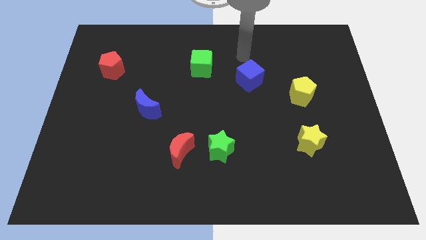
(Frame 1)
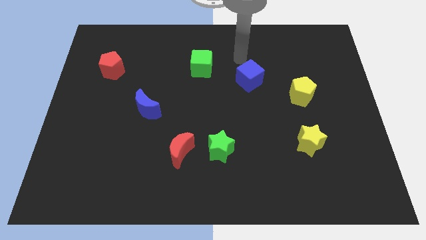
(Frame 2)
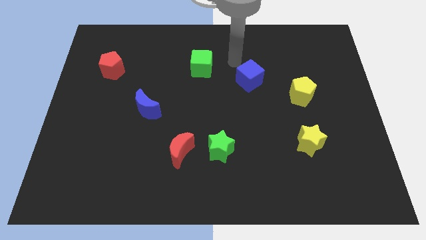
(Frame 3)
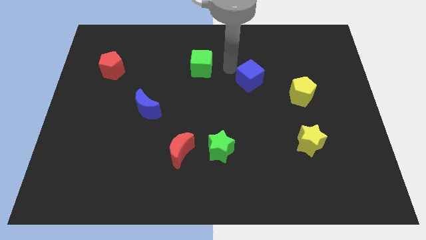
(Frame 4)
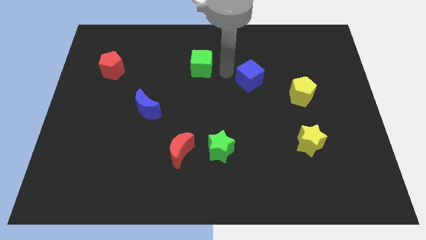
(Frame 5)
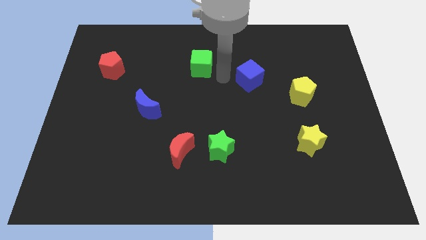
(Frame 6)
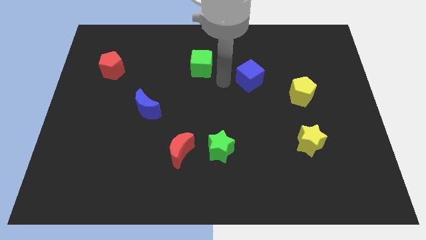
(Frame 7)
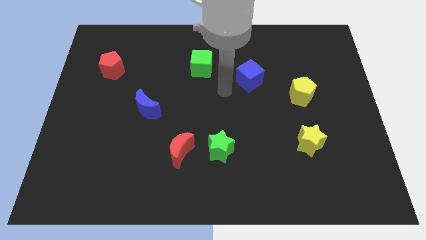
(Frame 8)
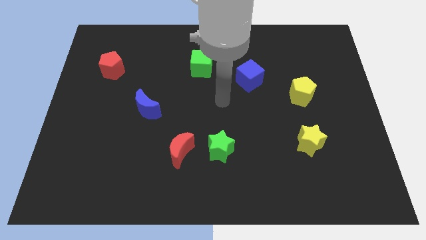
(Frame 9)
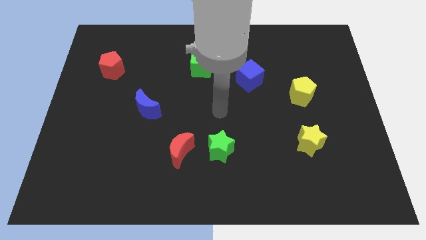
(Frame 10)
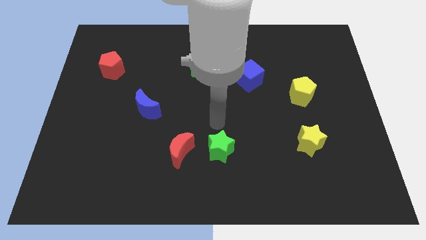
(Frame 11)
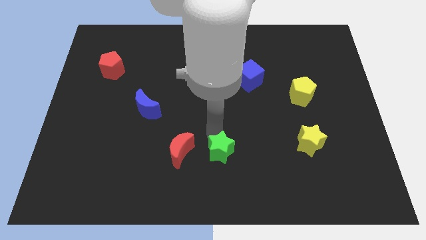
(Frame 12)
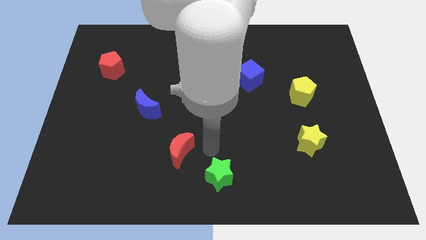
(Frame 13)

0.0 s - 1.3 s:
pull the red moon apart from the green star

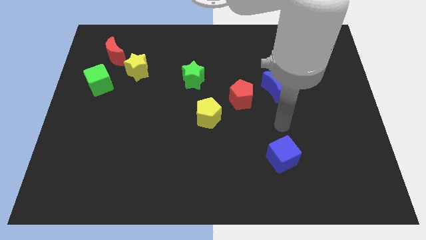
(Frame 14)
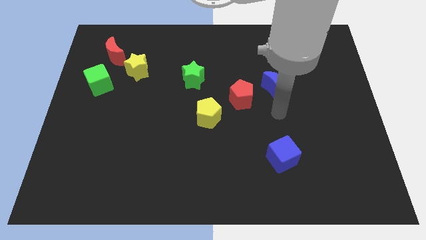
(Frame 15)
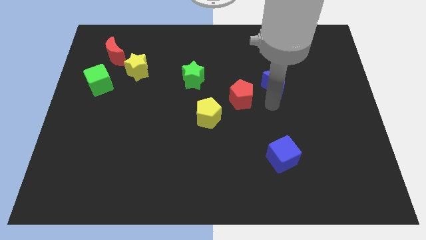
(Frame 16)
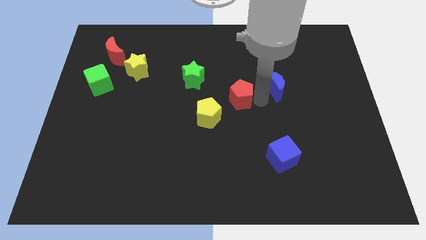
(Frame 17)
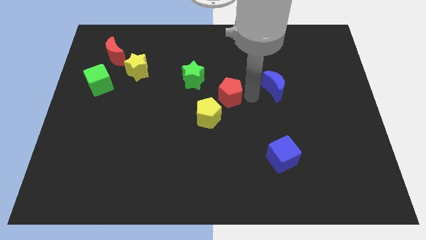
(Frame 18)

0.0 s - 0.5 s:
separate the blue moon from the red pentagon

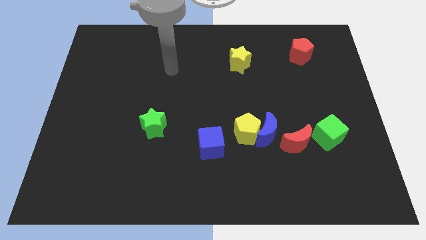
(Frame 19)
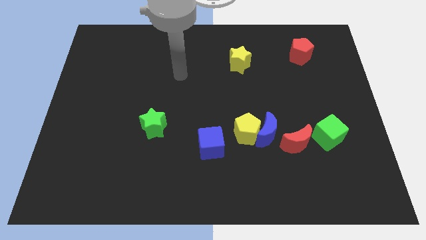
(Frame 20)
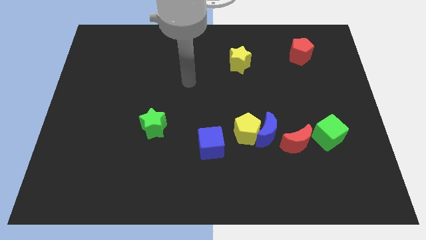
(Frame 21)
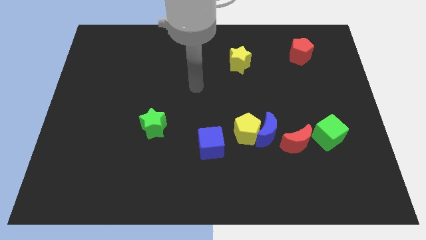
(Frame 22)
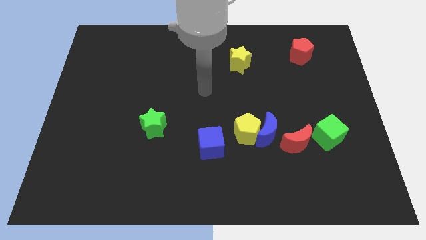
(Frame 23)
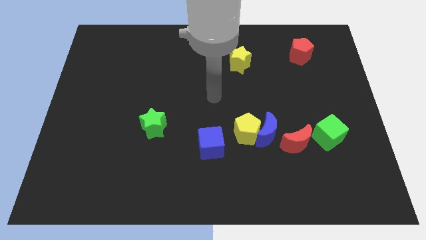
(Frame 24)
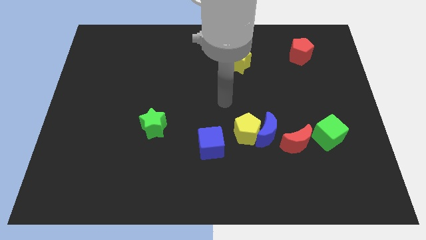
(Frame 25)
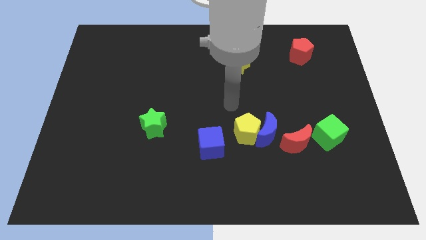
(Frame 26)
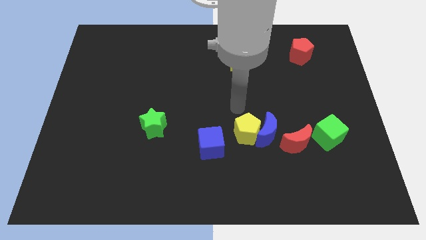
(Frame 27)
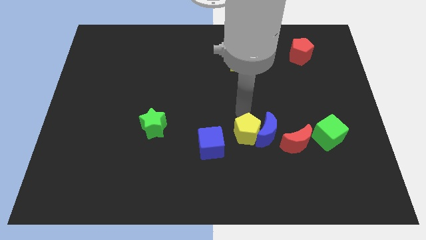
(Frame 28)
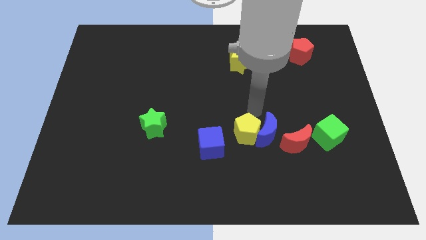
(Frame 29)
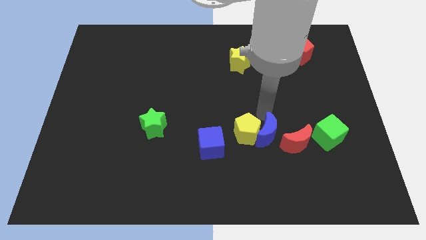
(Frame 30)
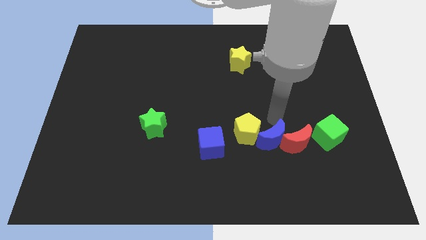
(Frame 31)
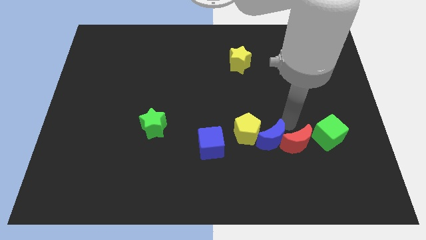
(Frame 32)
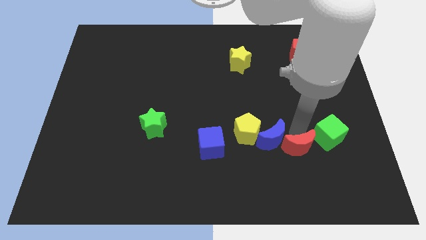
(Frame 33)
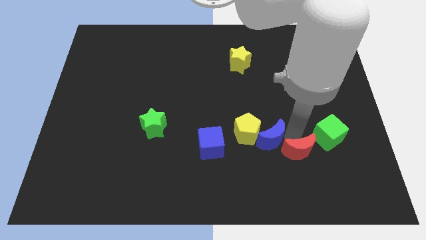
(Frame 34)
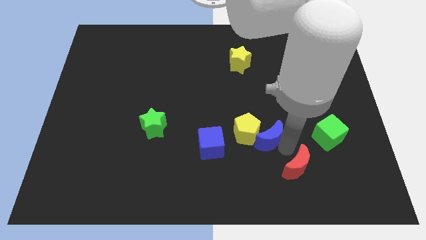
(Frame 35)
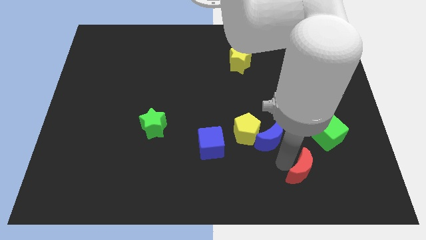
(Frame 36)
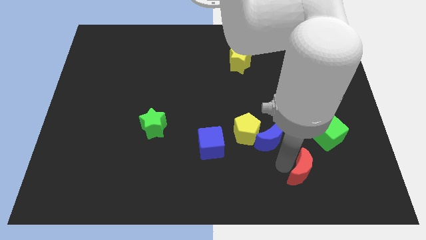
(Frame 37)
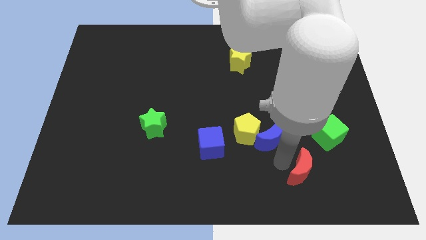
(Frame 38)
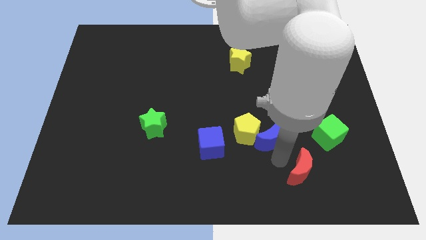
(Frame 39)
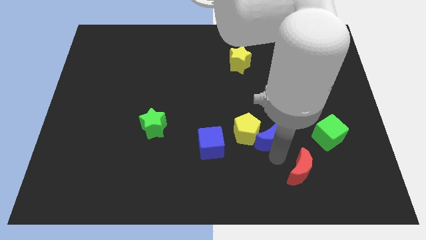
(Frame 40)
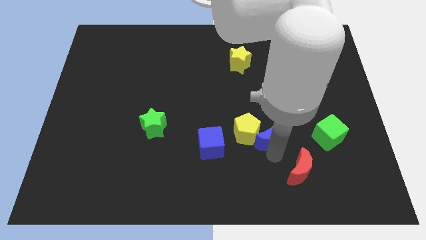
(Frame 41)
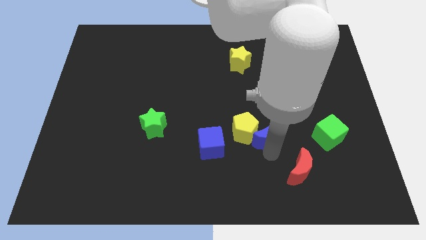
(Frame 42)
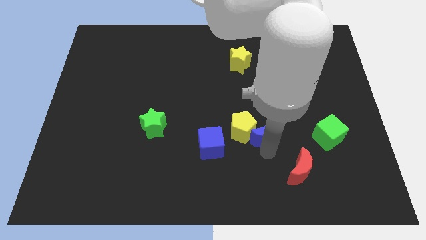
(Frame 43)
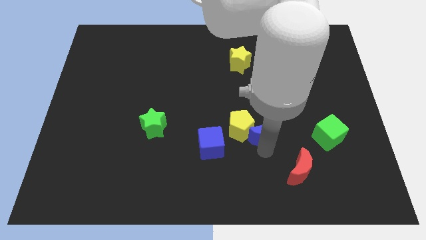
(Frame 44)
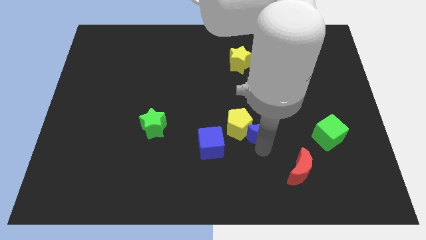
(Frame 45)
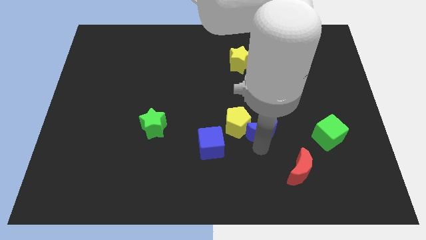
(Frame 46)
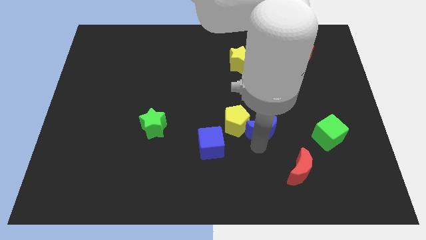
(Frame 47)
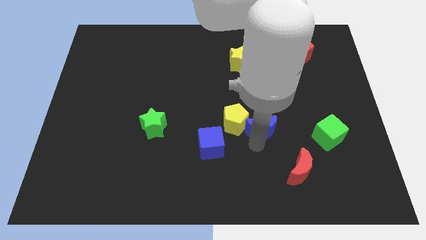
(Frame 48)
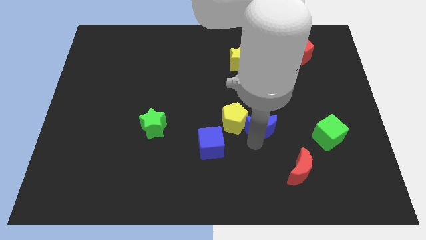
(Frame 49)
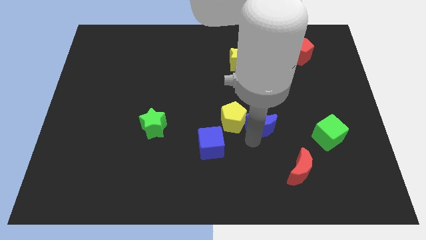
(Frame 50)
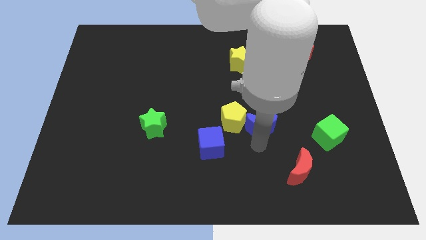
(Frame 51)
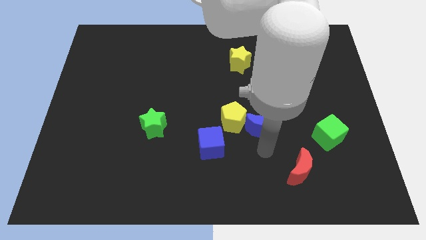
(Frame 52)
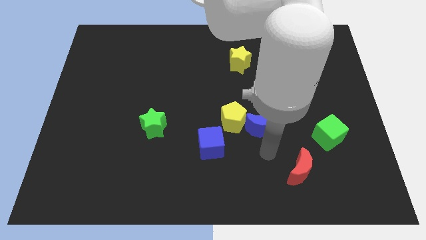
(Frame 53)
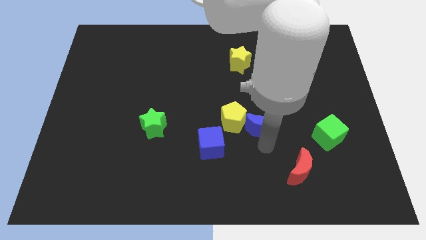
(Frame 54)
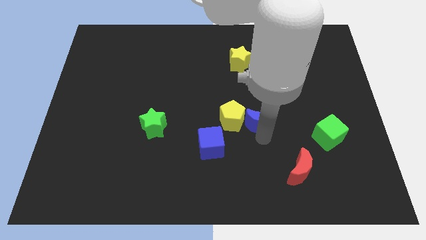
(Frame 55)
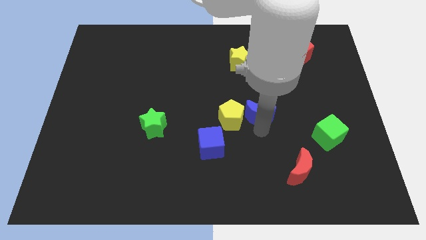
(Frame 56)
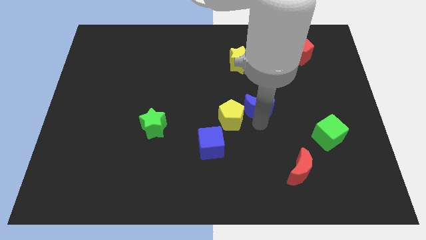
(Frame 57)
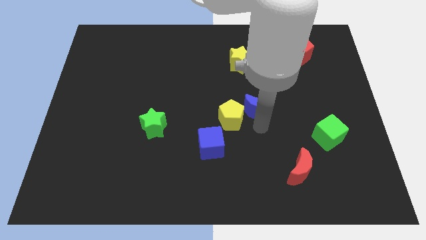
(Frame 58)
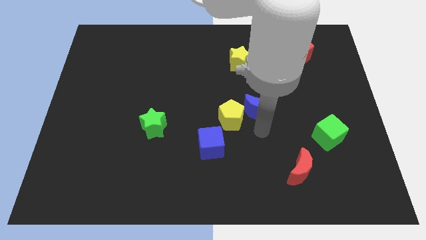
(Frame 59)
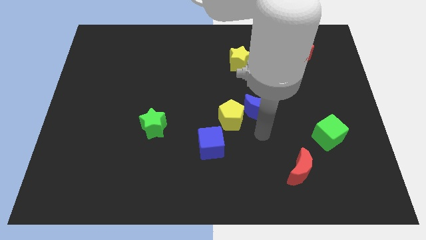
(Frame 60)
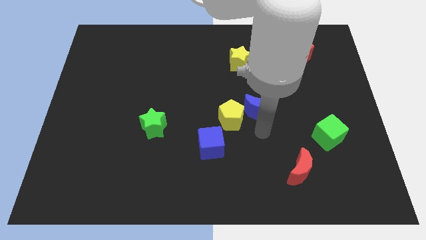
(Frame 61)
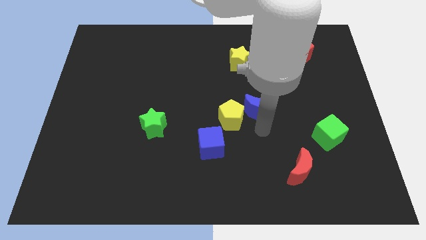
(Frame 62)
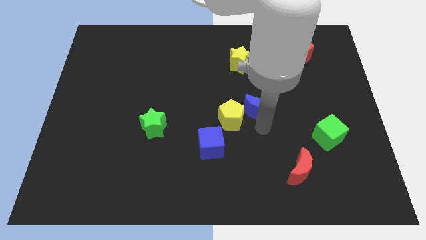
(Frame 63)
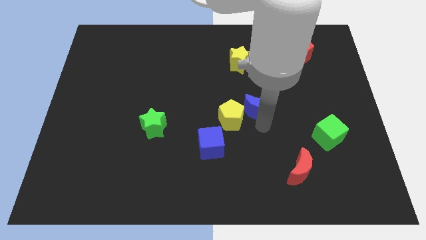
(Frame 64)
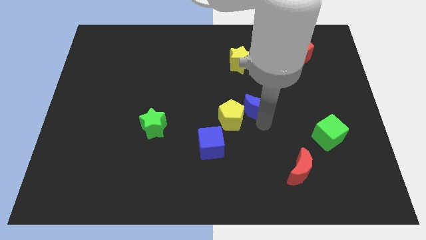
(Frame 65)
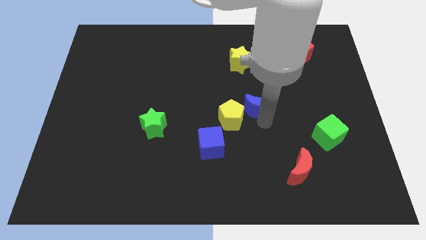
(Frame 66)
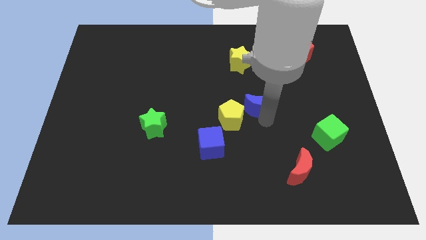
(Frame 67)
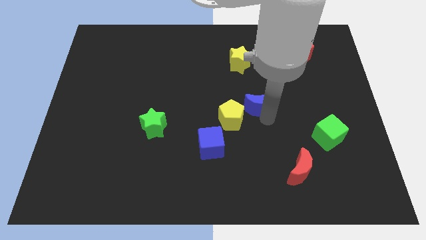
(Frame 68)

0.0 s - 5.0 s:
pull the blue moon apart from the yellow pentagon and red moon

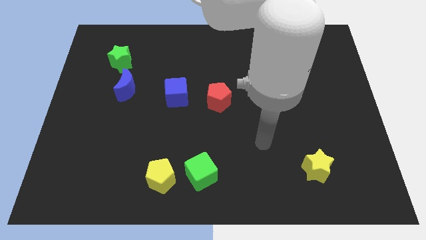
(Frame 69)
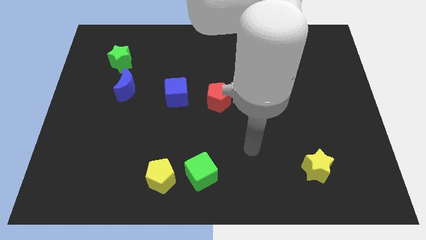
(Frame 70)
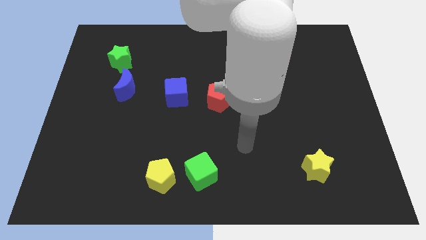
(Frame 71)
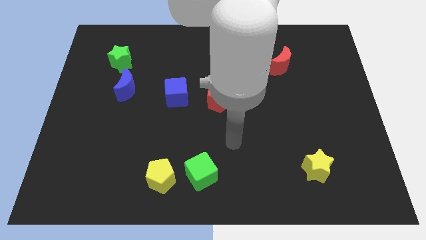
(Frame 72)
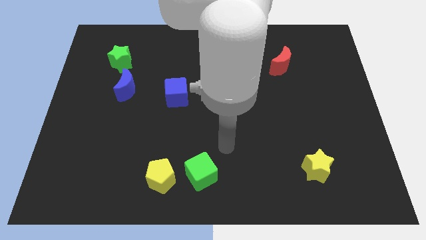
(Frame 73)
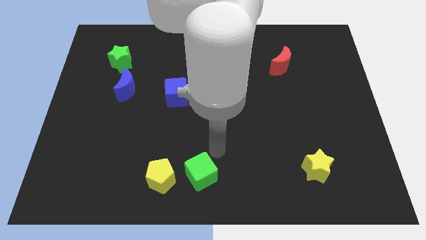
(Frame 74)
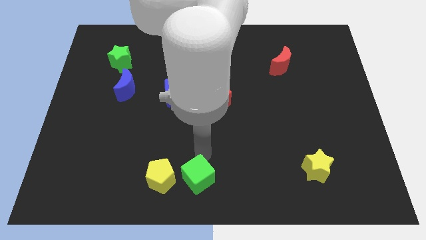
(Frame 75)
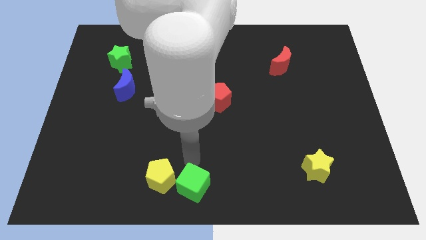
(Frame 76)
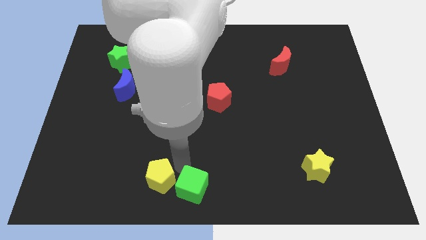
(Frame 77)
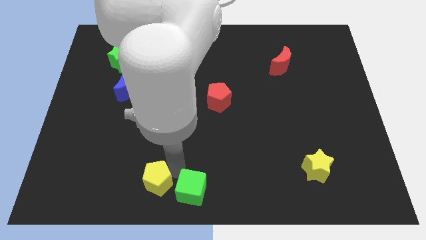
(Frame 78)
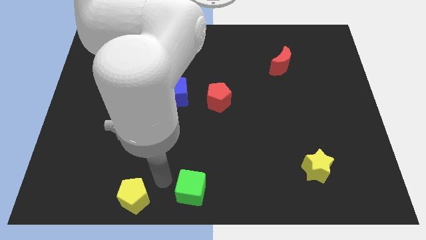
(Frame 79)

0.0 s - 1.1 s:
separate the green cube from the yellow pentagon

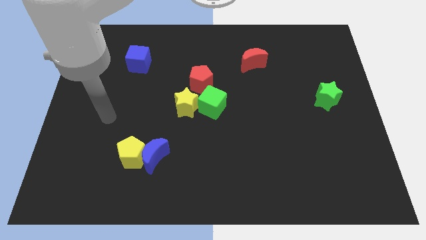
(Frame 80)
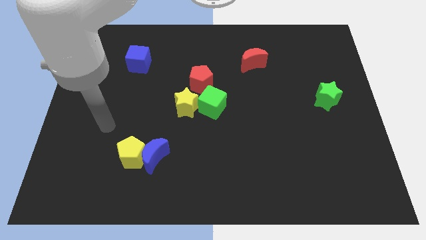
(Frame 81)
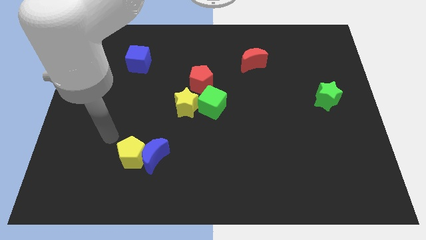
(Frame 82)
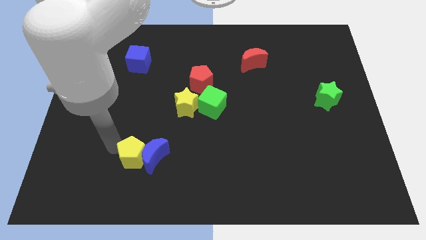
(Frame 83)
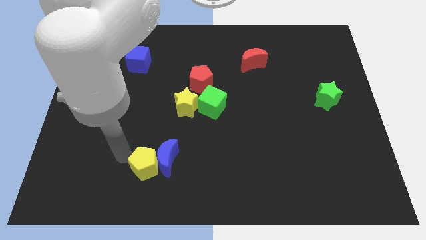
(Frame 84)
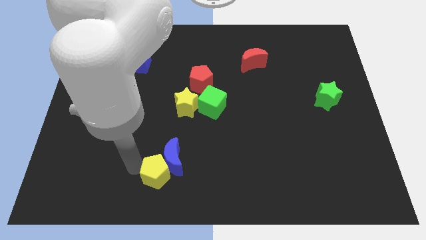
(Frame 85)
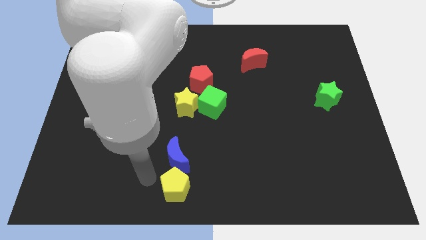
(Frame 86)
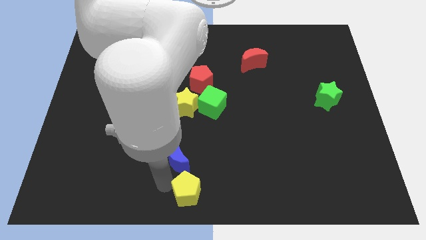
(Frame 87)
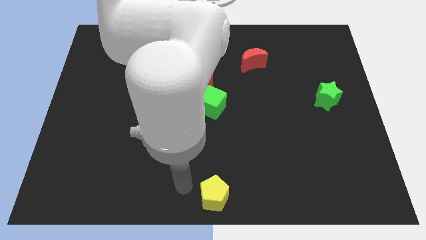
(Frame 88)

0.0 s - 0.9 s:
move the blue moon away from the yellow pentagon

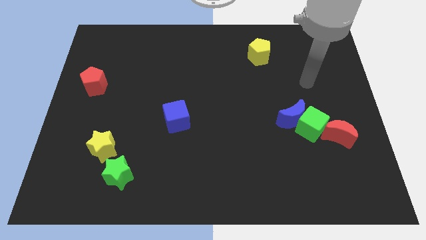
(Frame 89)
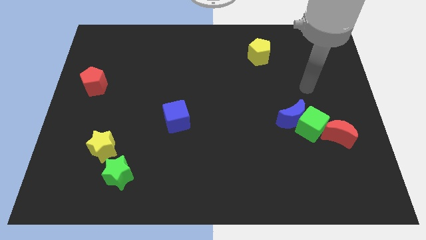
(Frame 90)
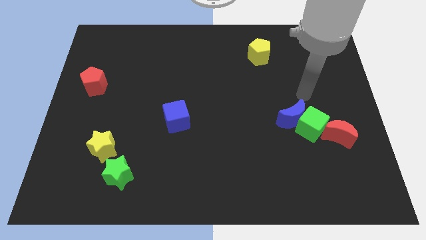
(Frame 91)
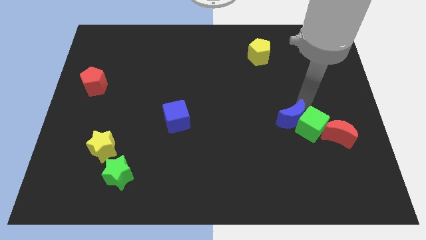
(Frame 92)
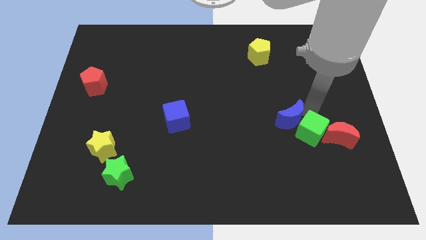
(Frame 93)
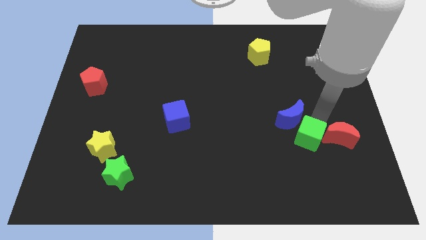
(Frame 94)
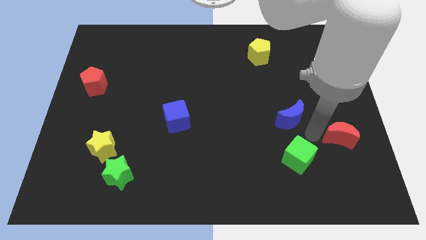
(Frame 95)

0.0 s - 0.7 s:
separate the blue moon from the green cube
